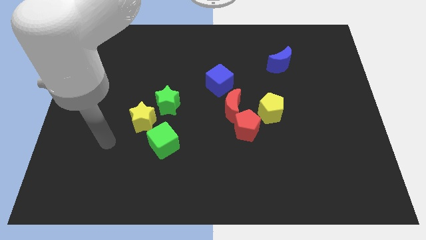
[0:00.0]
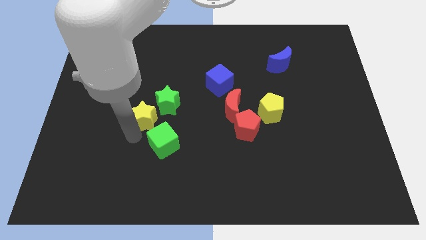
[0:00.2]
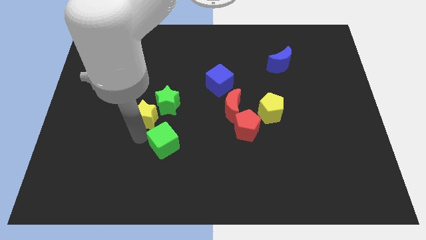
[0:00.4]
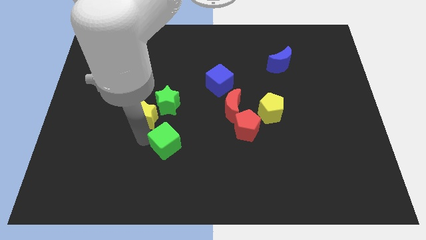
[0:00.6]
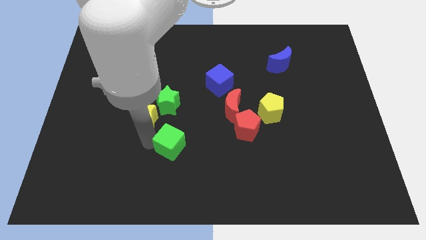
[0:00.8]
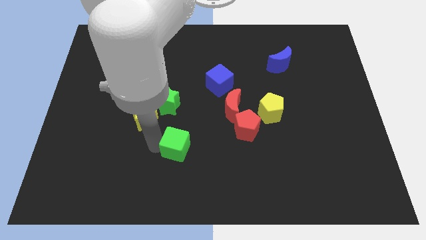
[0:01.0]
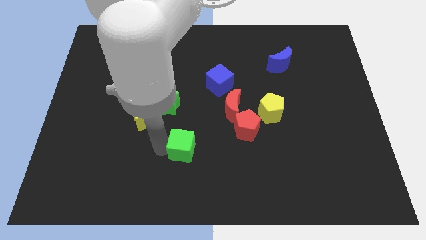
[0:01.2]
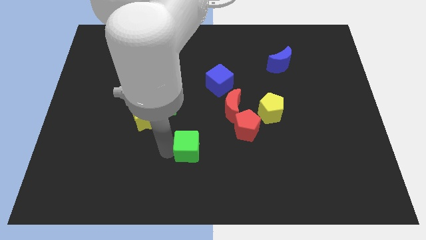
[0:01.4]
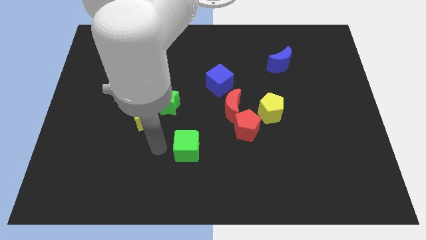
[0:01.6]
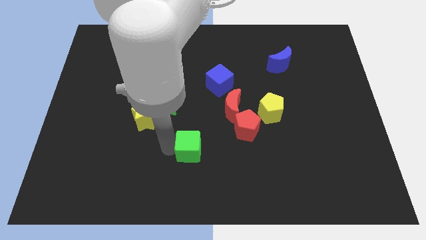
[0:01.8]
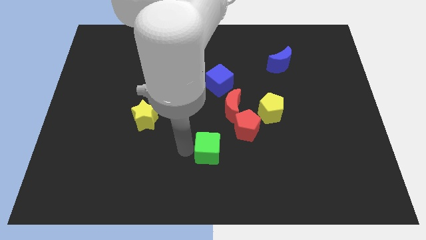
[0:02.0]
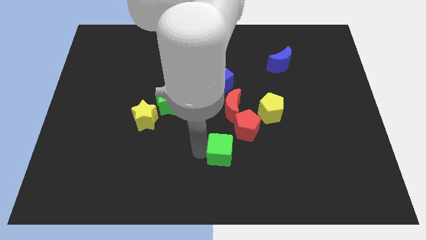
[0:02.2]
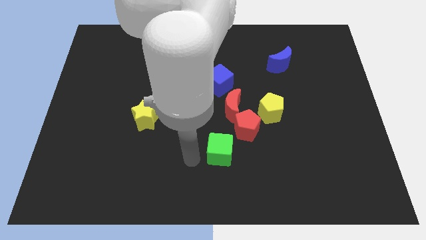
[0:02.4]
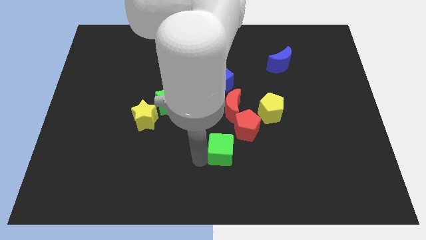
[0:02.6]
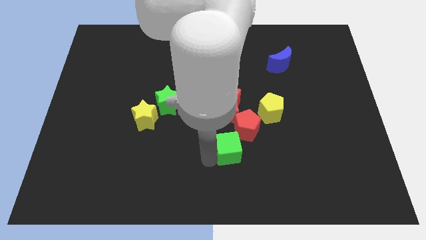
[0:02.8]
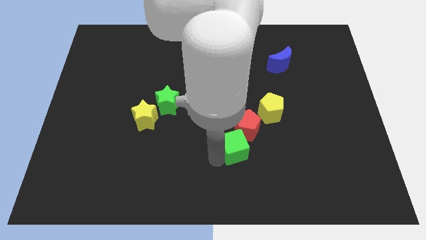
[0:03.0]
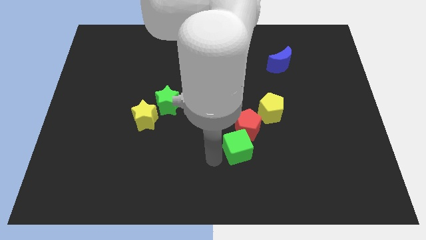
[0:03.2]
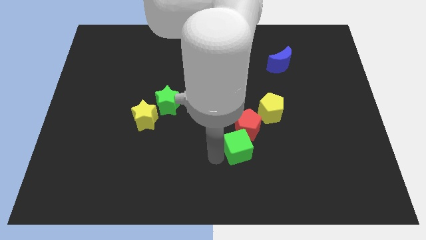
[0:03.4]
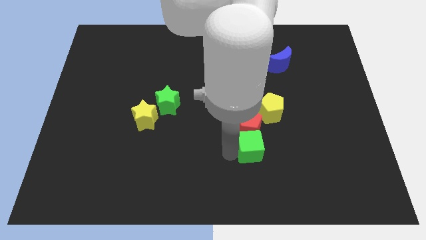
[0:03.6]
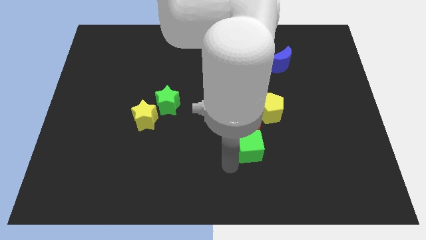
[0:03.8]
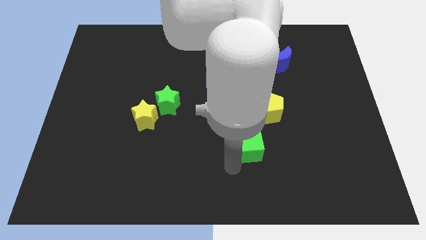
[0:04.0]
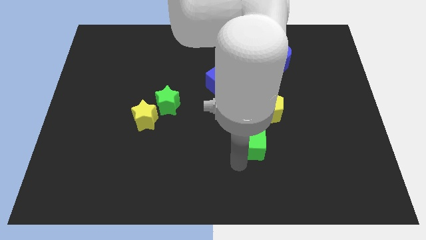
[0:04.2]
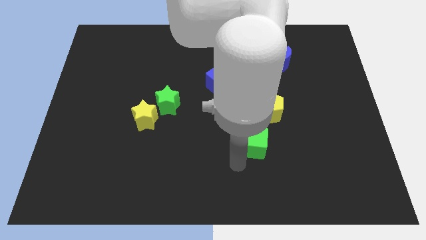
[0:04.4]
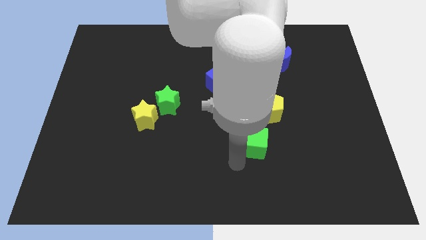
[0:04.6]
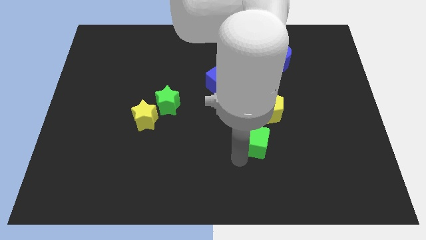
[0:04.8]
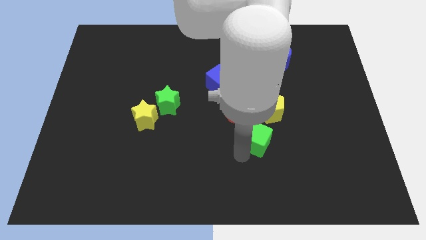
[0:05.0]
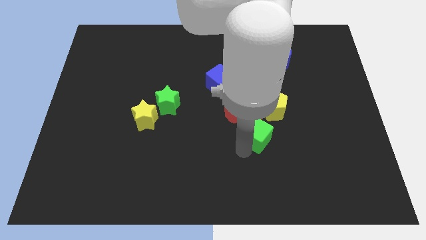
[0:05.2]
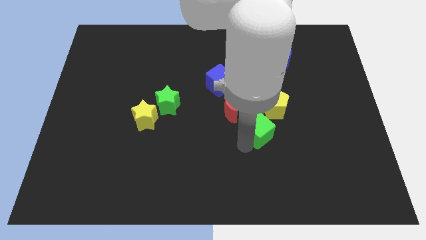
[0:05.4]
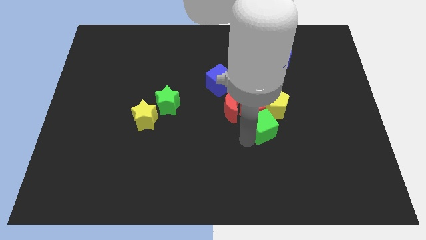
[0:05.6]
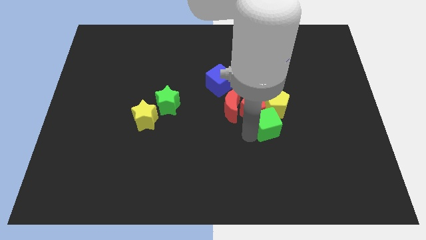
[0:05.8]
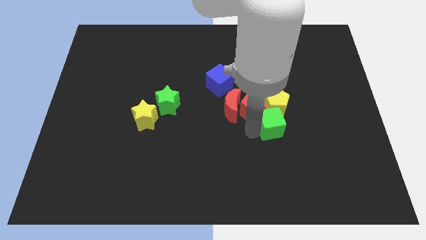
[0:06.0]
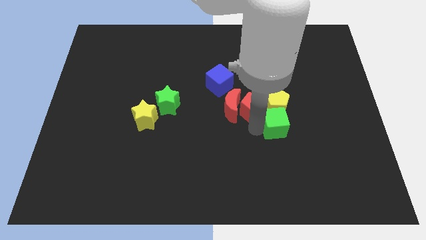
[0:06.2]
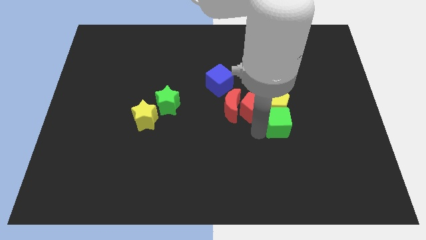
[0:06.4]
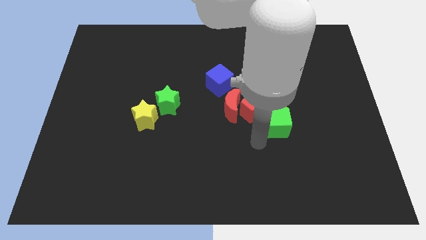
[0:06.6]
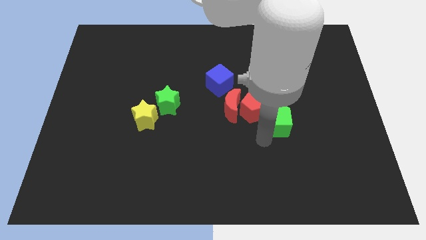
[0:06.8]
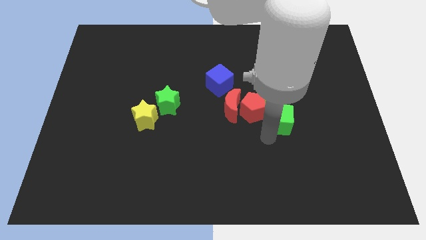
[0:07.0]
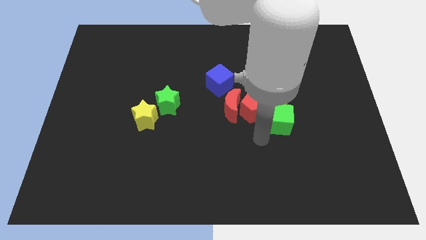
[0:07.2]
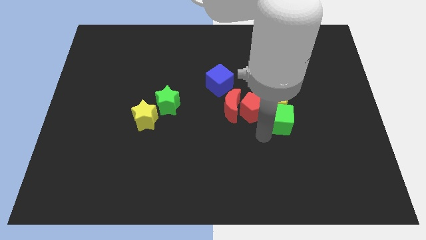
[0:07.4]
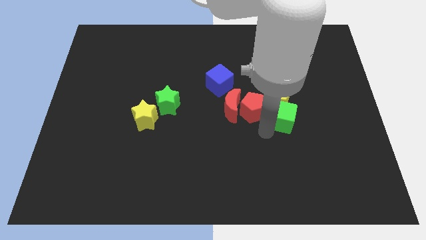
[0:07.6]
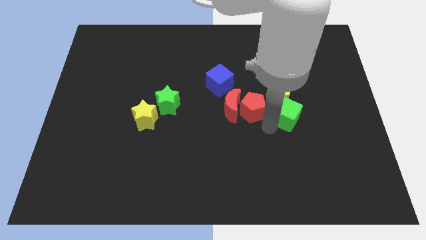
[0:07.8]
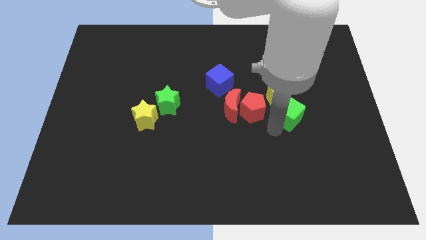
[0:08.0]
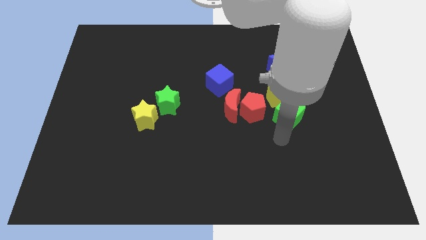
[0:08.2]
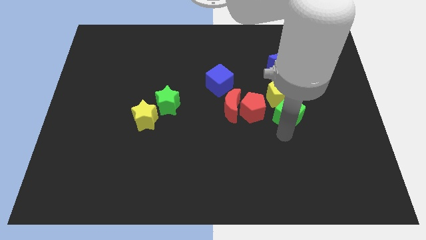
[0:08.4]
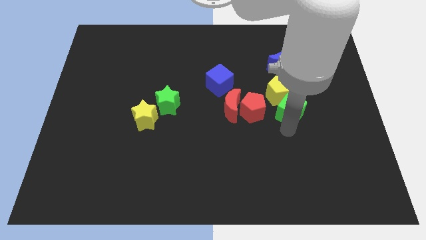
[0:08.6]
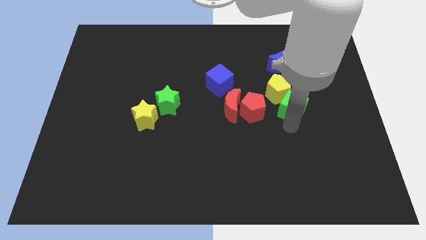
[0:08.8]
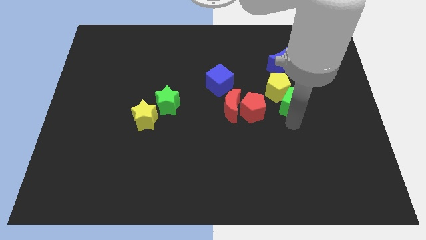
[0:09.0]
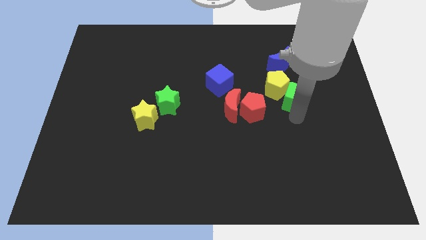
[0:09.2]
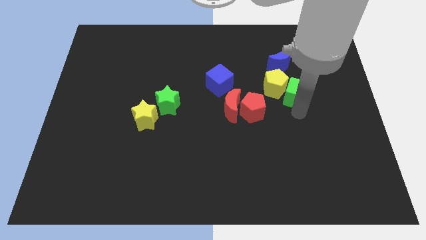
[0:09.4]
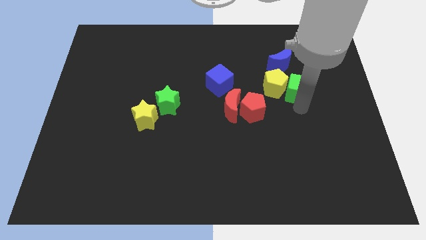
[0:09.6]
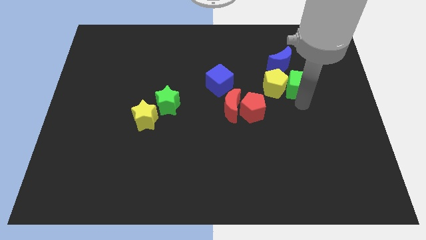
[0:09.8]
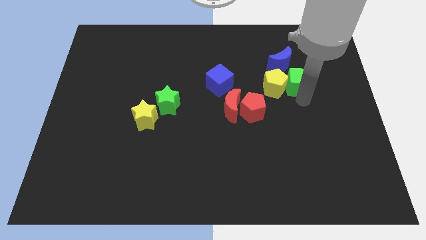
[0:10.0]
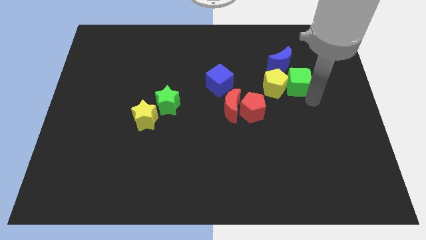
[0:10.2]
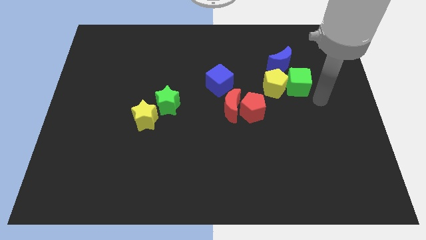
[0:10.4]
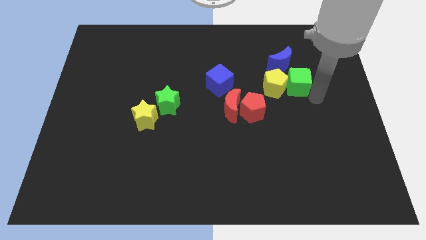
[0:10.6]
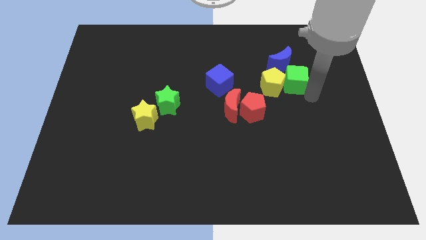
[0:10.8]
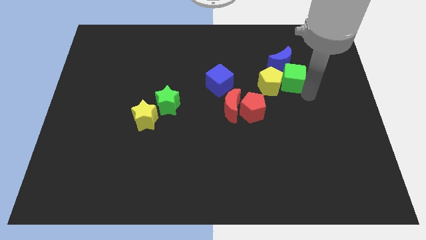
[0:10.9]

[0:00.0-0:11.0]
put the green cube to the blue moon

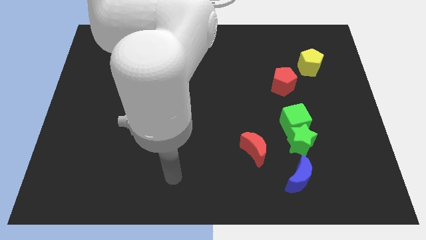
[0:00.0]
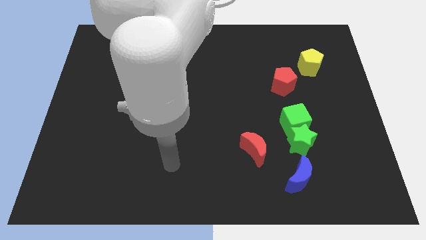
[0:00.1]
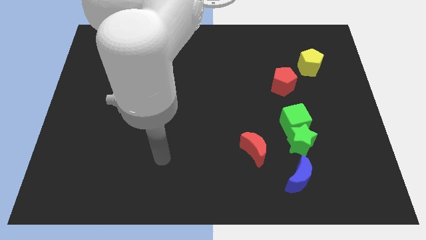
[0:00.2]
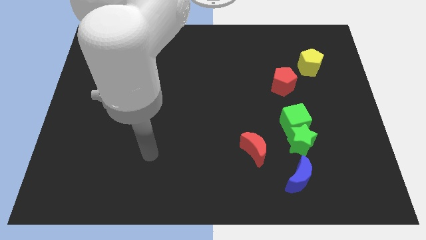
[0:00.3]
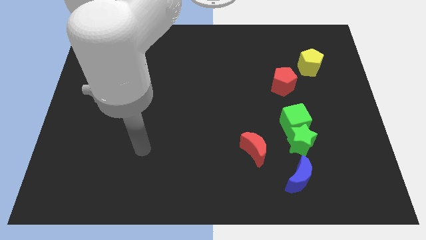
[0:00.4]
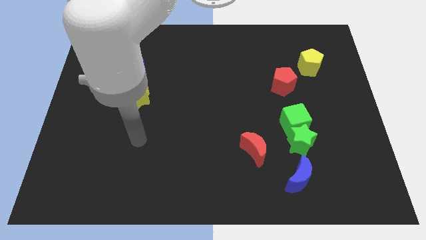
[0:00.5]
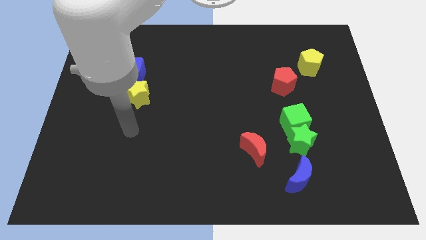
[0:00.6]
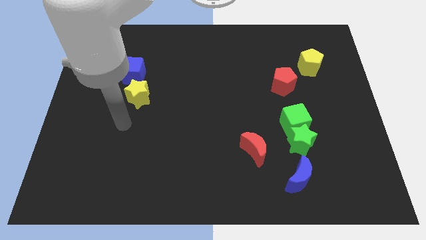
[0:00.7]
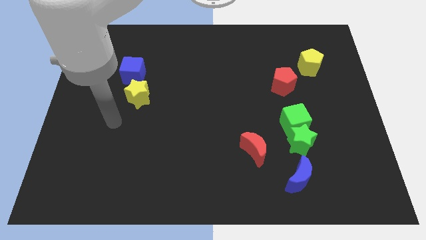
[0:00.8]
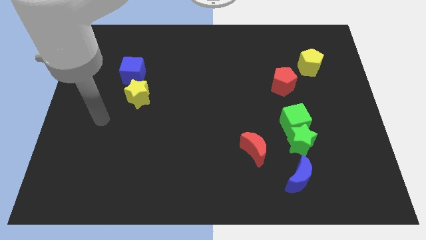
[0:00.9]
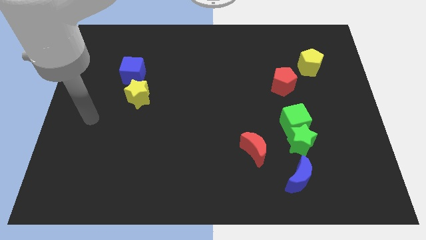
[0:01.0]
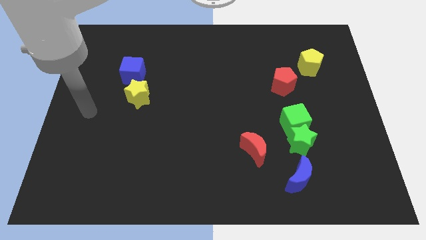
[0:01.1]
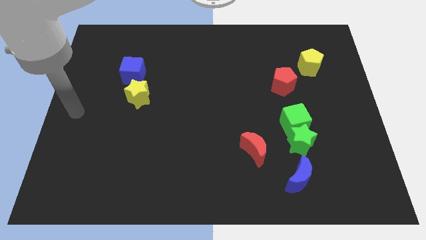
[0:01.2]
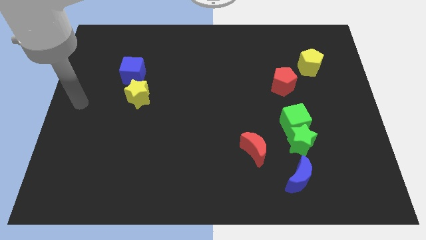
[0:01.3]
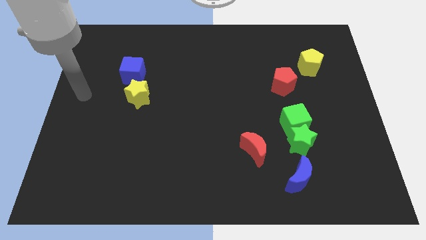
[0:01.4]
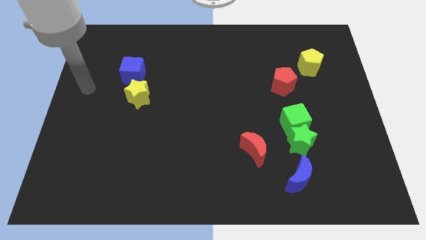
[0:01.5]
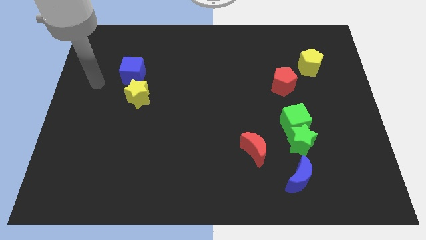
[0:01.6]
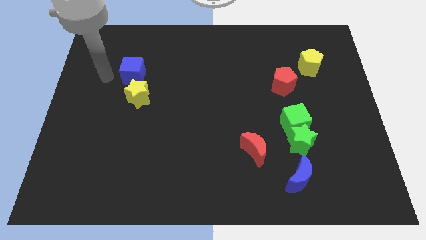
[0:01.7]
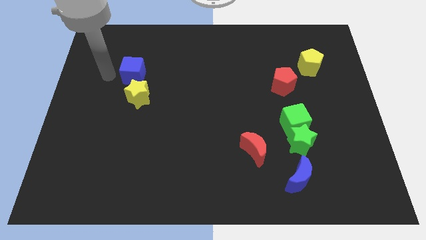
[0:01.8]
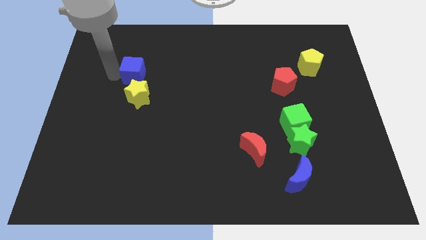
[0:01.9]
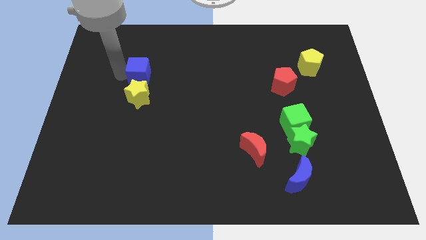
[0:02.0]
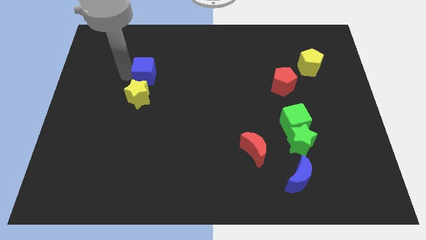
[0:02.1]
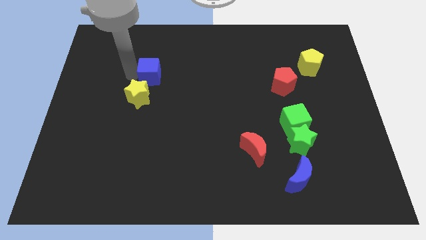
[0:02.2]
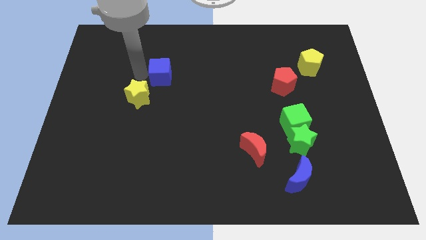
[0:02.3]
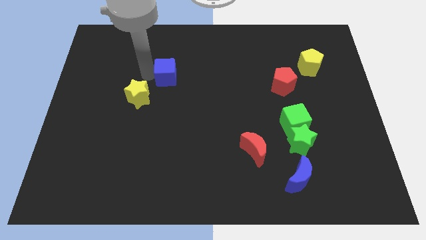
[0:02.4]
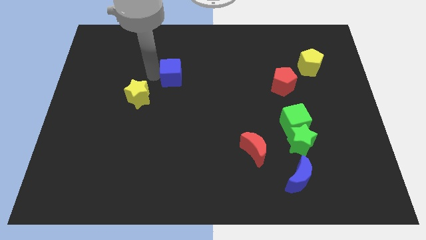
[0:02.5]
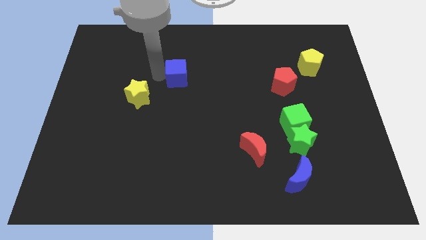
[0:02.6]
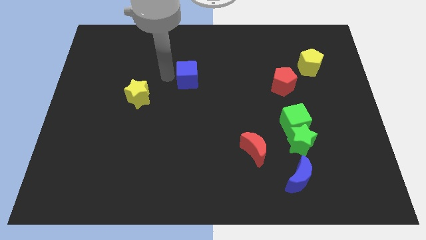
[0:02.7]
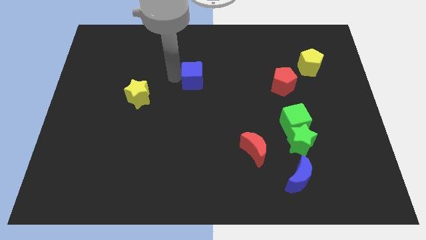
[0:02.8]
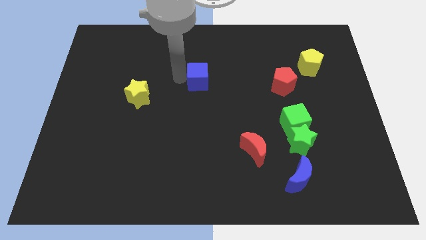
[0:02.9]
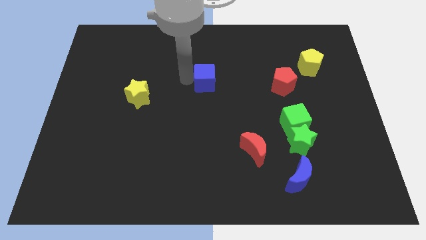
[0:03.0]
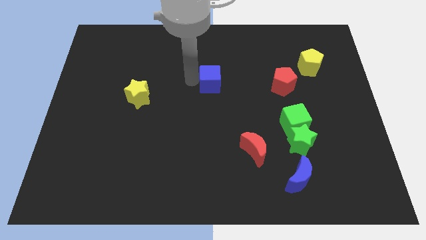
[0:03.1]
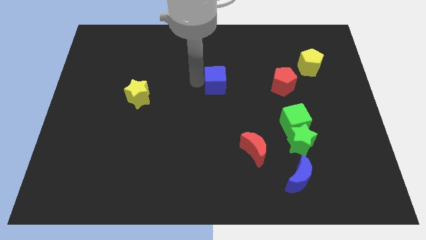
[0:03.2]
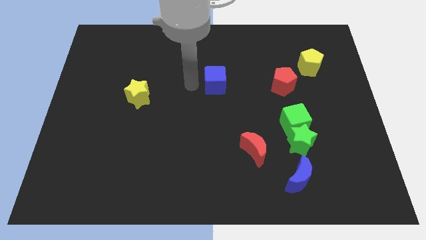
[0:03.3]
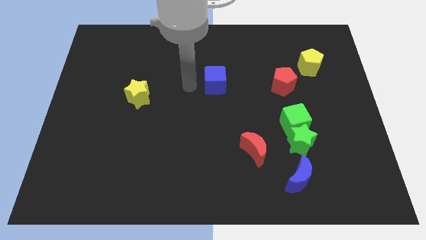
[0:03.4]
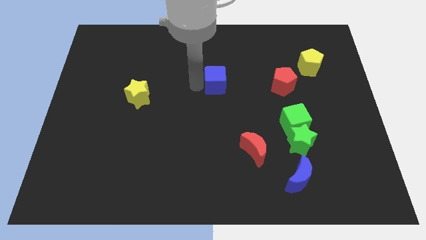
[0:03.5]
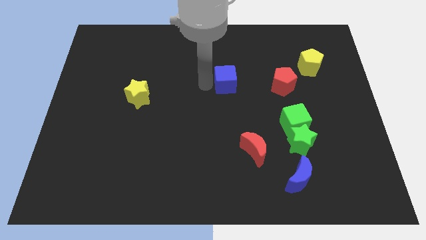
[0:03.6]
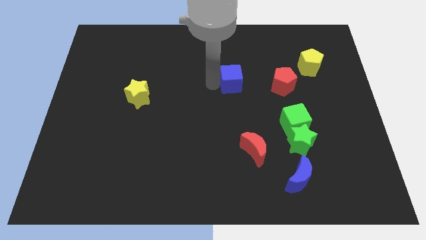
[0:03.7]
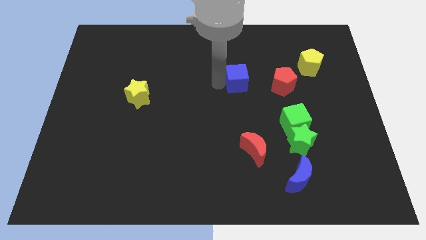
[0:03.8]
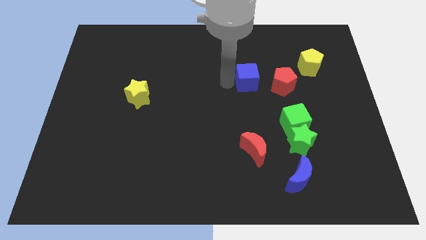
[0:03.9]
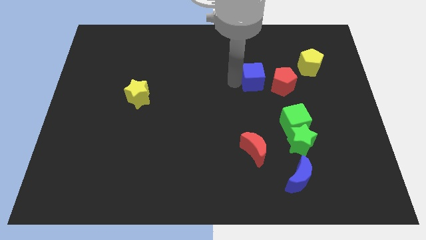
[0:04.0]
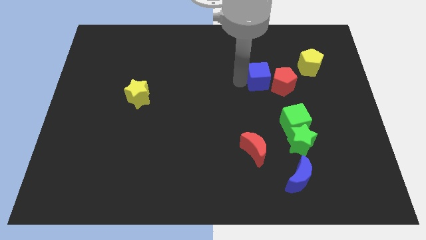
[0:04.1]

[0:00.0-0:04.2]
push the blue cube next to the red pentagon
